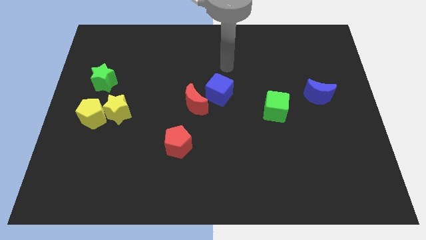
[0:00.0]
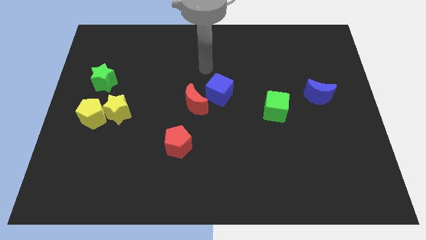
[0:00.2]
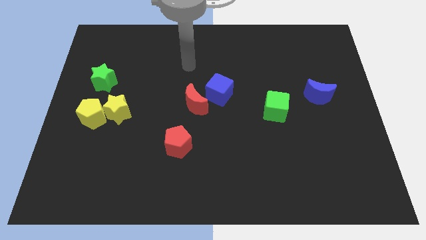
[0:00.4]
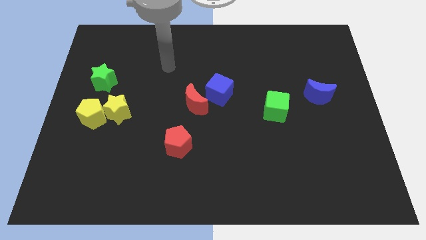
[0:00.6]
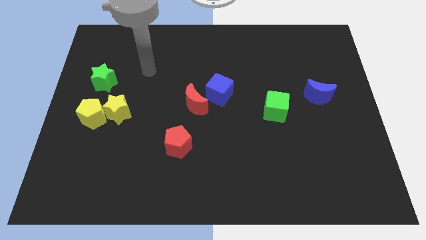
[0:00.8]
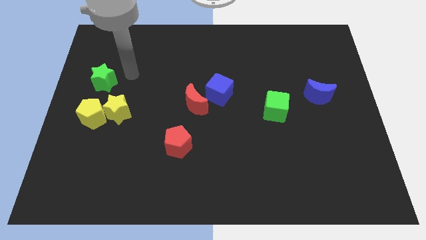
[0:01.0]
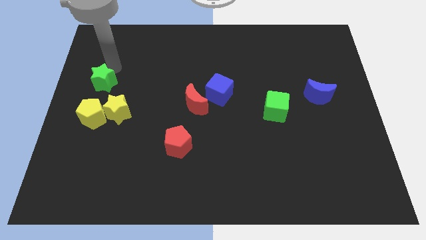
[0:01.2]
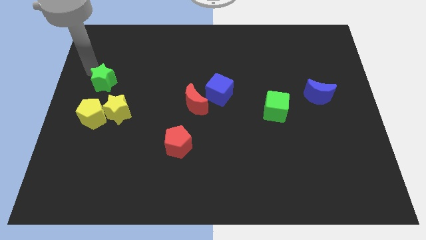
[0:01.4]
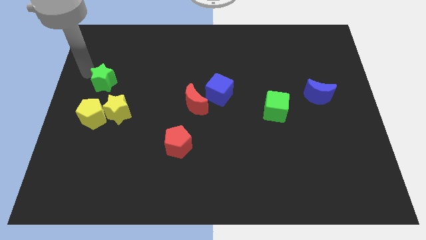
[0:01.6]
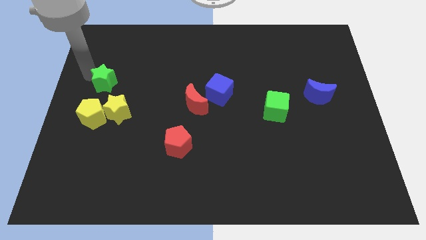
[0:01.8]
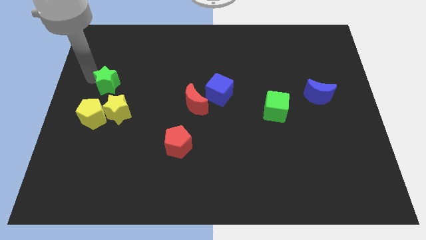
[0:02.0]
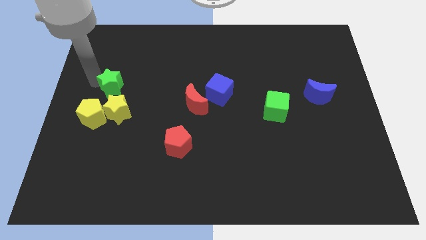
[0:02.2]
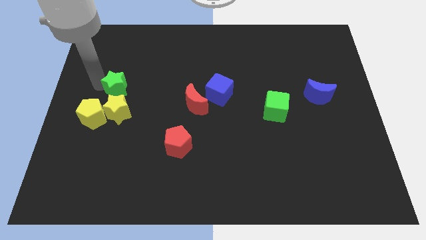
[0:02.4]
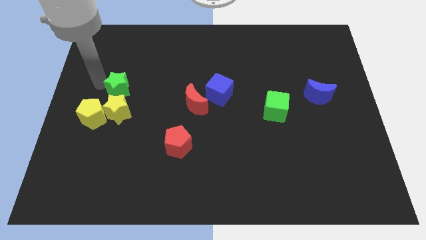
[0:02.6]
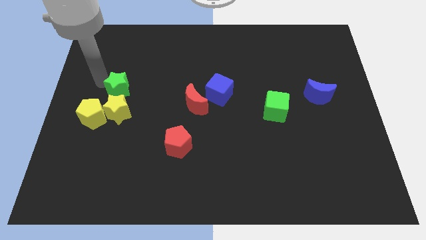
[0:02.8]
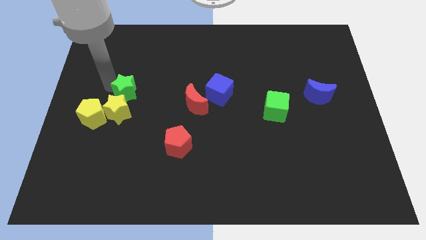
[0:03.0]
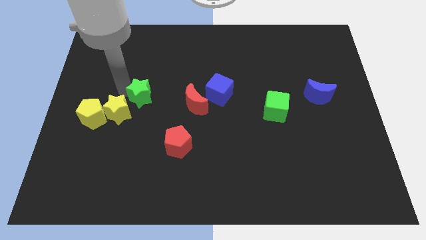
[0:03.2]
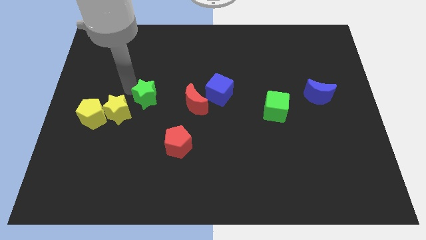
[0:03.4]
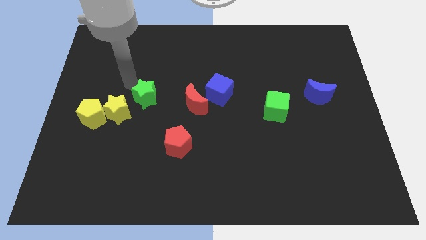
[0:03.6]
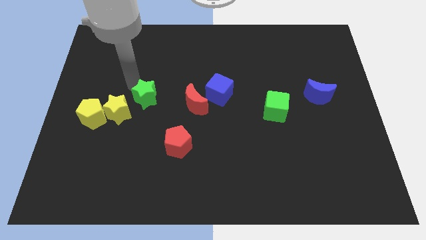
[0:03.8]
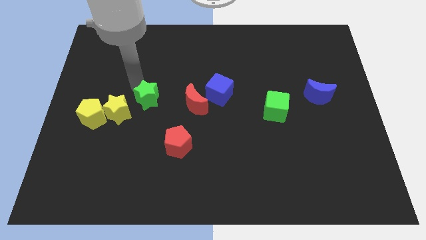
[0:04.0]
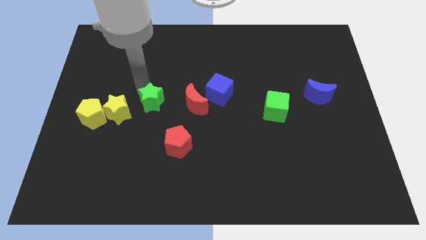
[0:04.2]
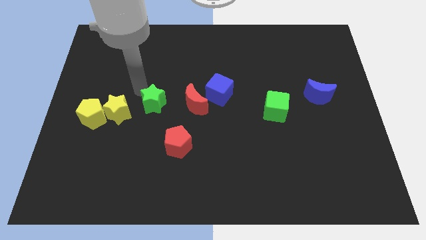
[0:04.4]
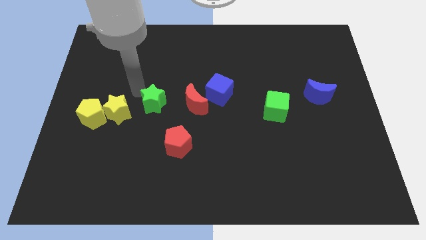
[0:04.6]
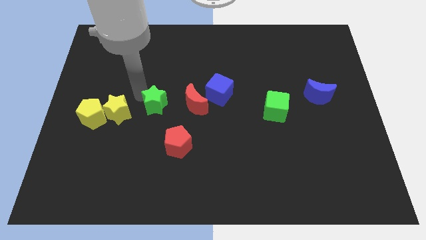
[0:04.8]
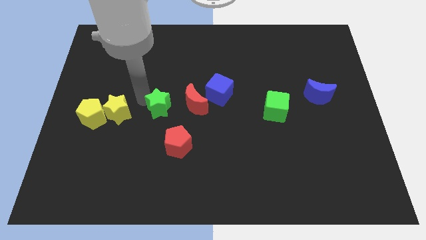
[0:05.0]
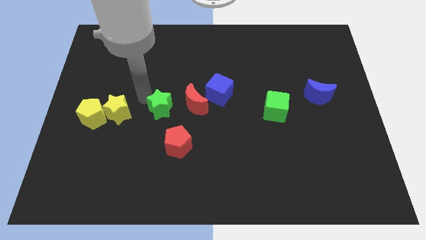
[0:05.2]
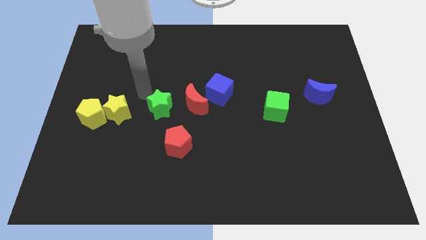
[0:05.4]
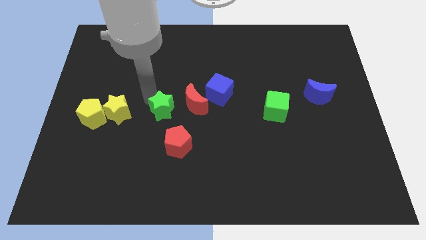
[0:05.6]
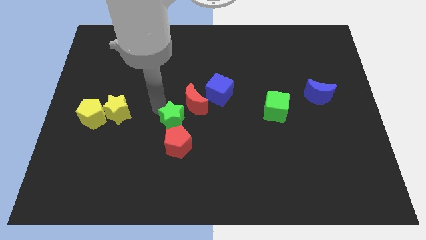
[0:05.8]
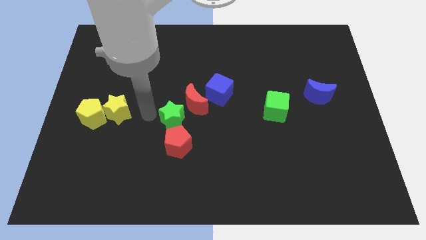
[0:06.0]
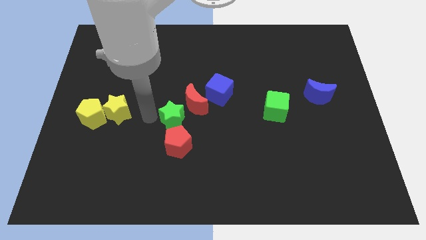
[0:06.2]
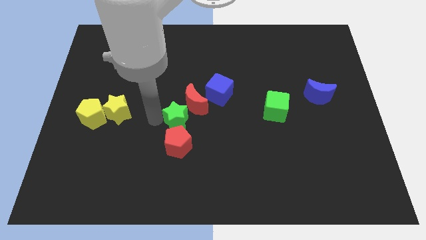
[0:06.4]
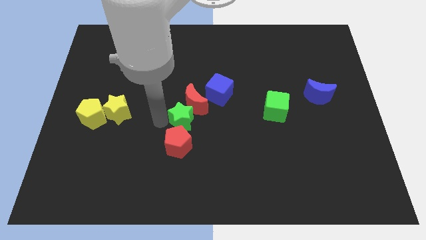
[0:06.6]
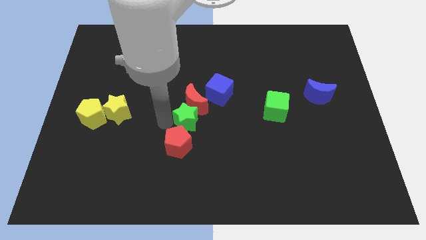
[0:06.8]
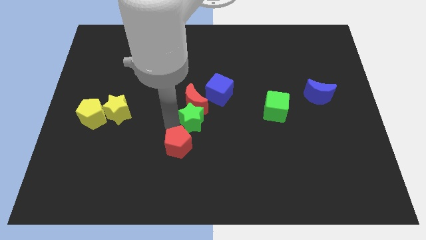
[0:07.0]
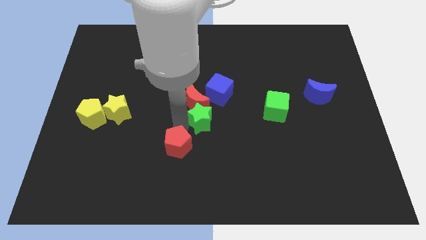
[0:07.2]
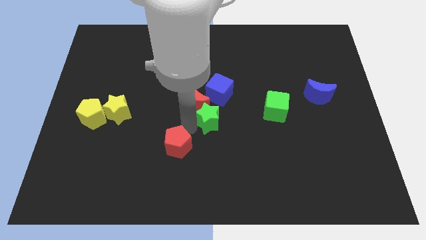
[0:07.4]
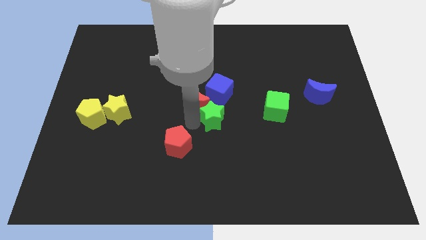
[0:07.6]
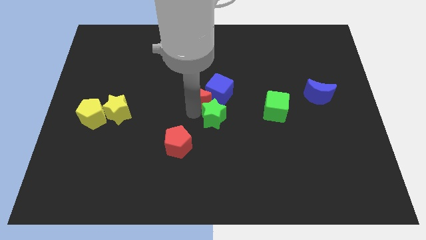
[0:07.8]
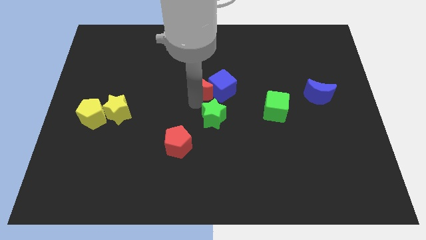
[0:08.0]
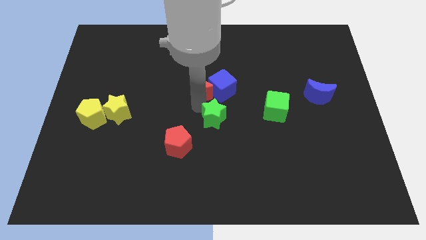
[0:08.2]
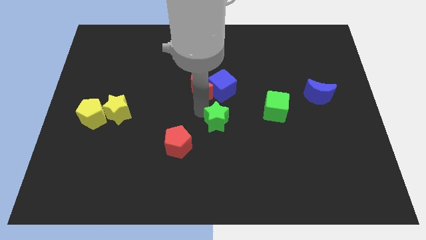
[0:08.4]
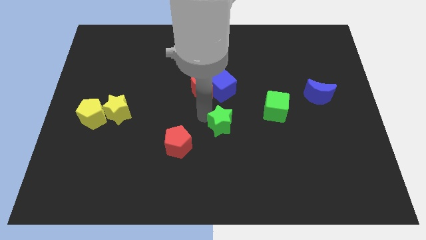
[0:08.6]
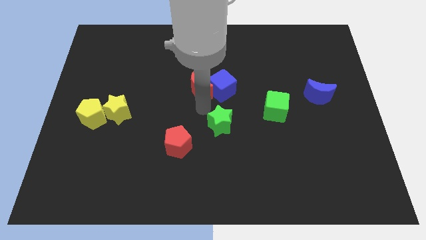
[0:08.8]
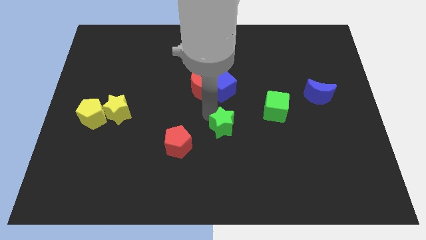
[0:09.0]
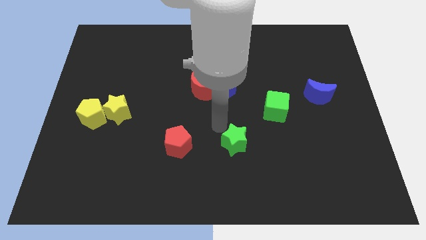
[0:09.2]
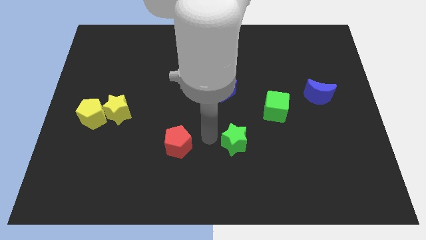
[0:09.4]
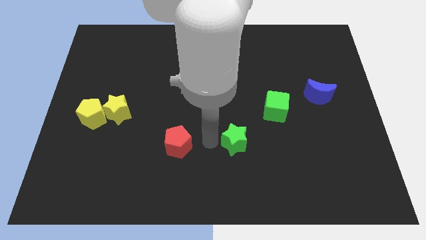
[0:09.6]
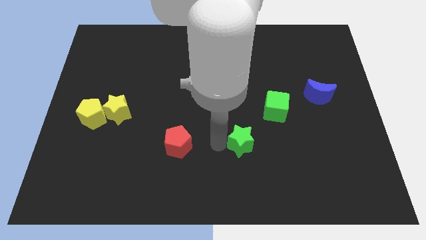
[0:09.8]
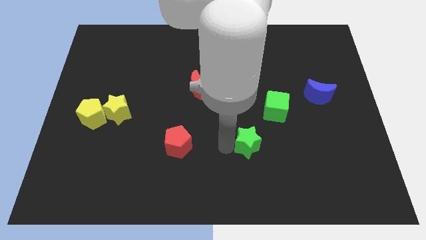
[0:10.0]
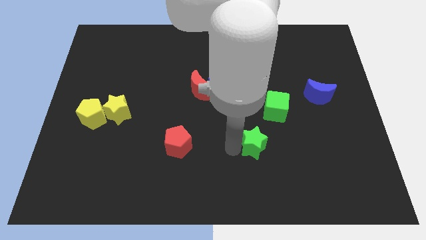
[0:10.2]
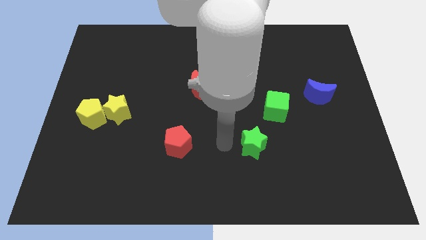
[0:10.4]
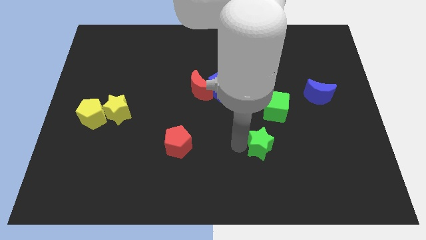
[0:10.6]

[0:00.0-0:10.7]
put the green star to the bottom of the green cube

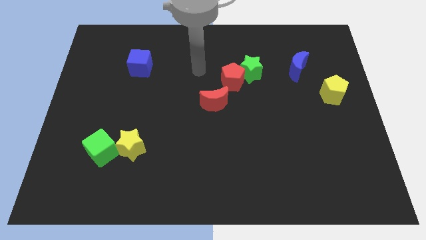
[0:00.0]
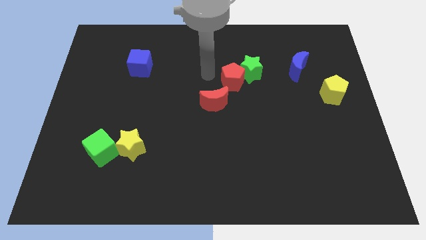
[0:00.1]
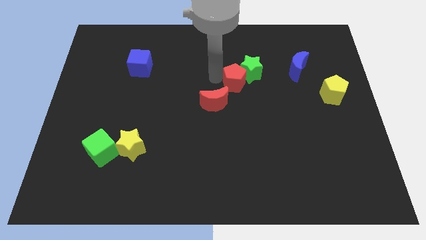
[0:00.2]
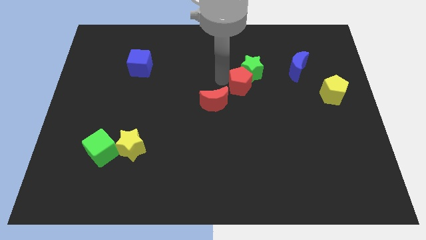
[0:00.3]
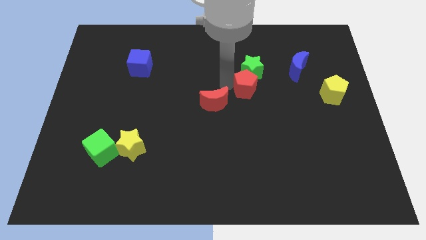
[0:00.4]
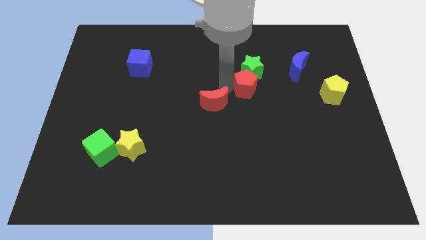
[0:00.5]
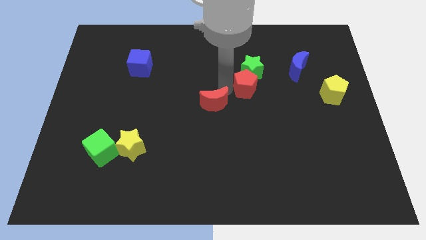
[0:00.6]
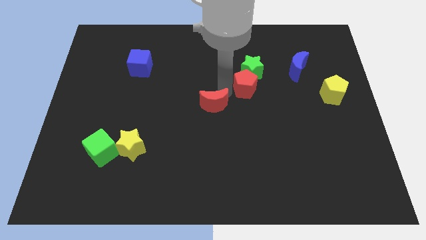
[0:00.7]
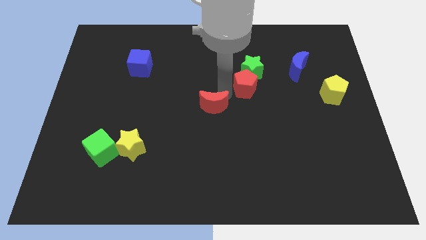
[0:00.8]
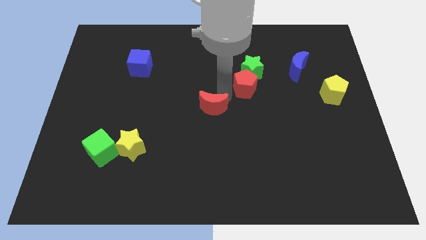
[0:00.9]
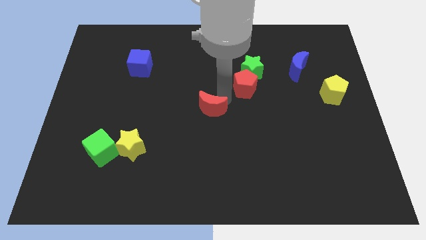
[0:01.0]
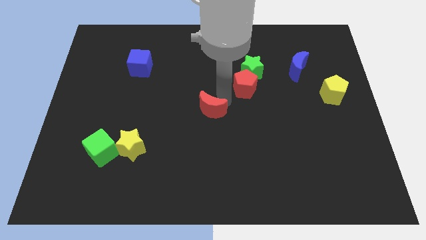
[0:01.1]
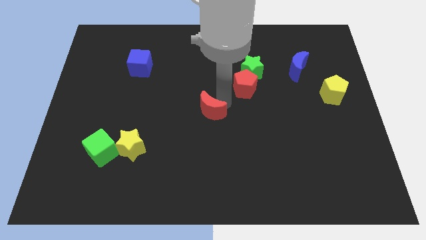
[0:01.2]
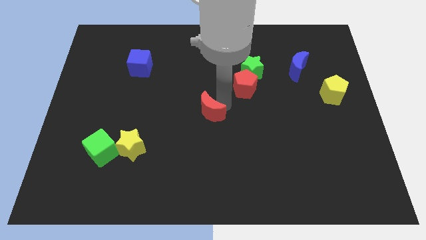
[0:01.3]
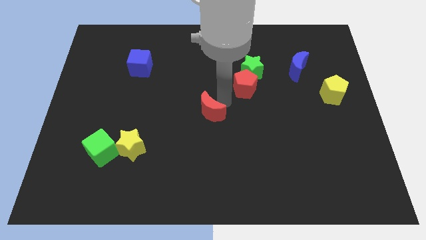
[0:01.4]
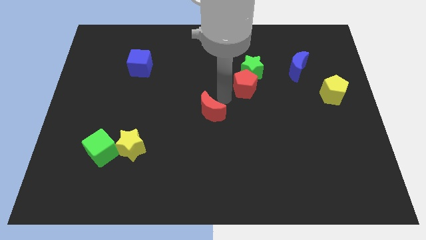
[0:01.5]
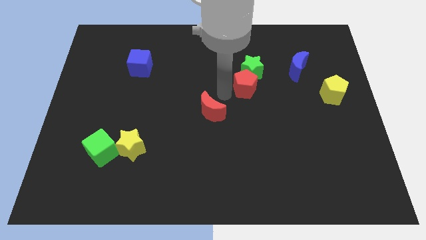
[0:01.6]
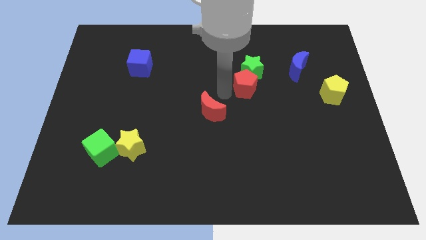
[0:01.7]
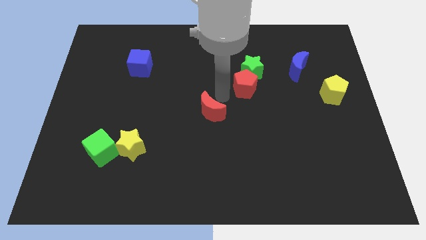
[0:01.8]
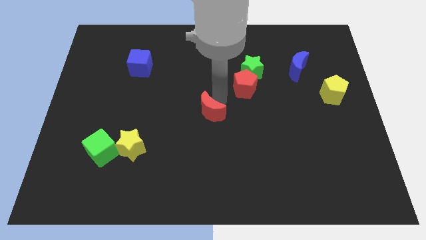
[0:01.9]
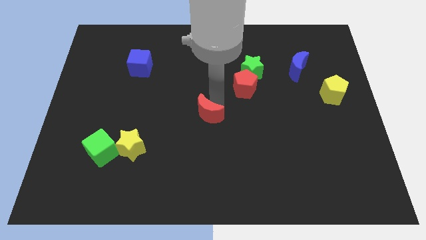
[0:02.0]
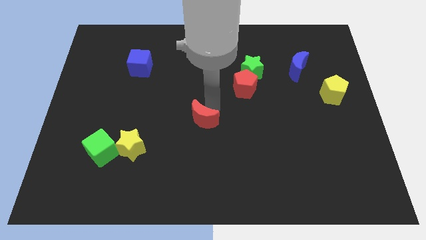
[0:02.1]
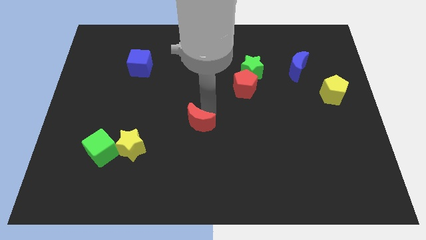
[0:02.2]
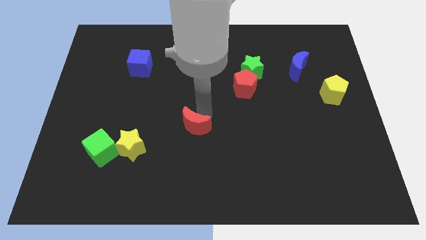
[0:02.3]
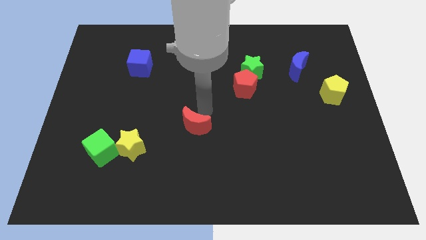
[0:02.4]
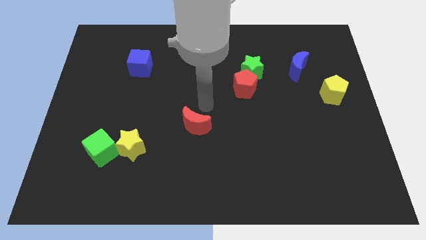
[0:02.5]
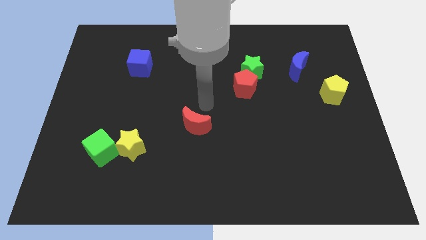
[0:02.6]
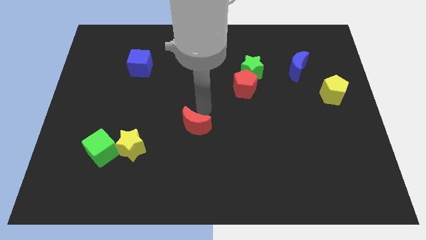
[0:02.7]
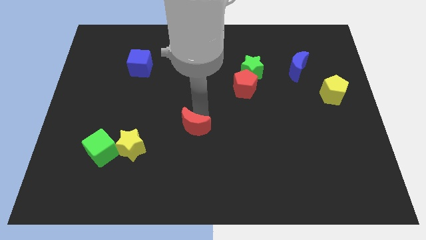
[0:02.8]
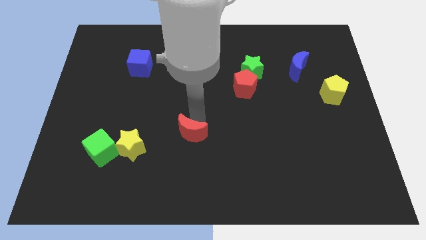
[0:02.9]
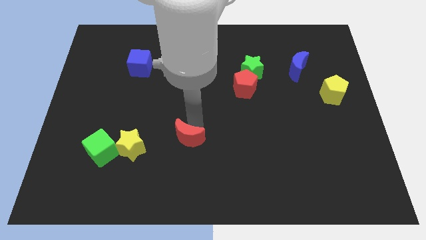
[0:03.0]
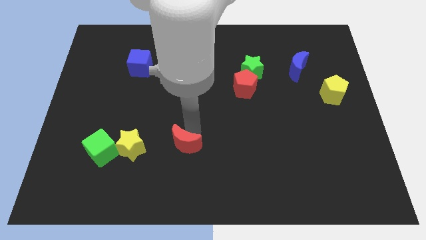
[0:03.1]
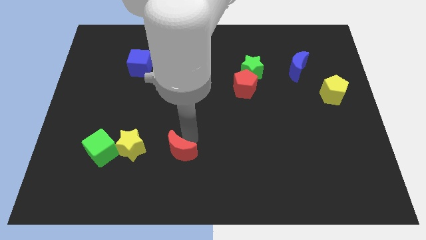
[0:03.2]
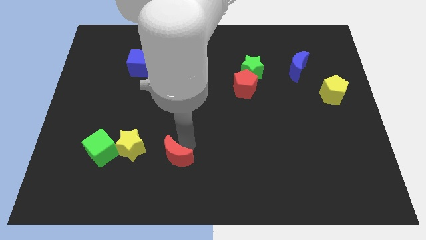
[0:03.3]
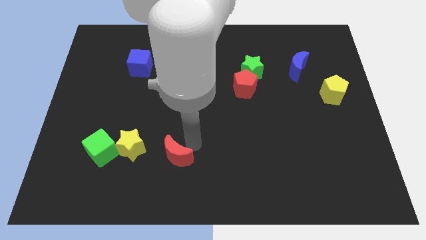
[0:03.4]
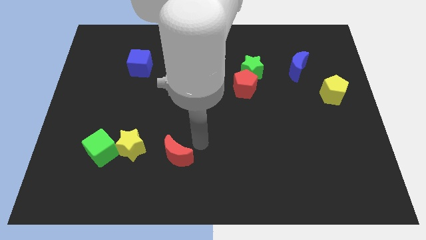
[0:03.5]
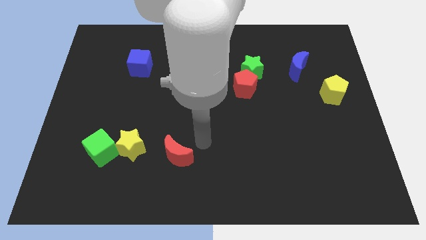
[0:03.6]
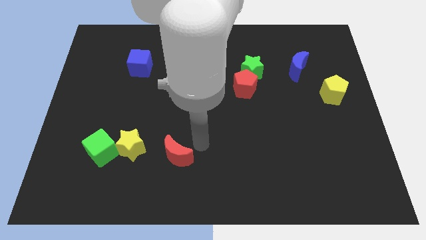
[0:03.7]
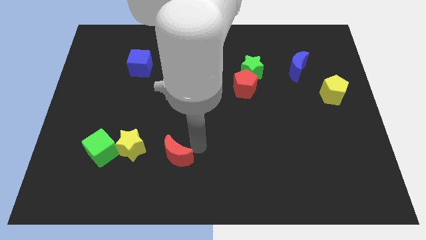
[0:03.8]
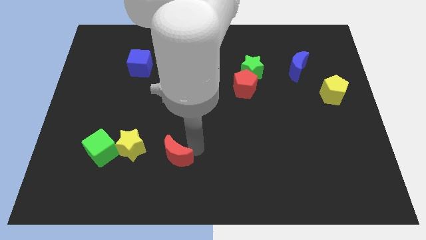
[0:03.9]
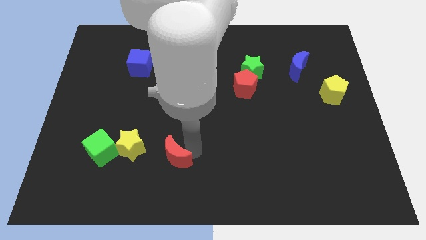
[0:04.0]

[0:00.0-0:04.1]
move the red moon to the bottom right of the yellow star
